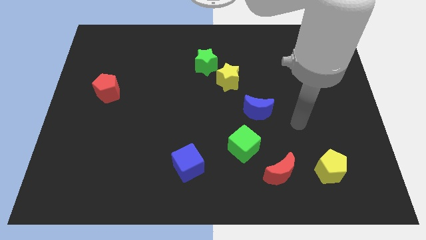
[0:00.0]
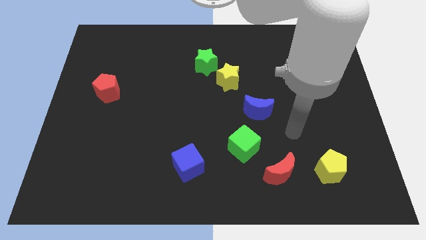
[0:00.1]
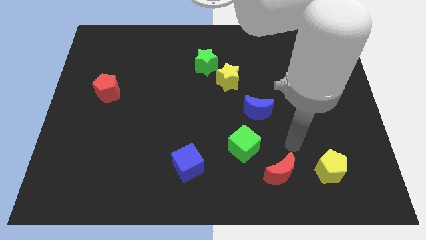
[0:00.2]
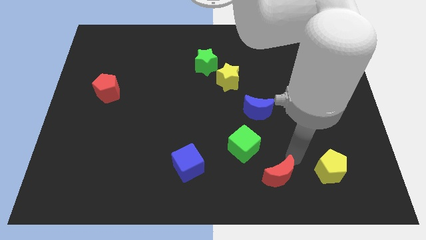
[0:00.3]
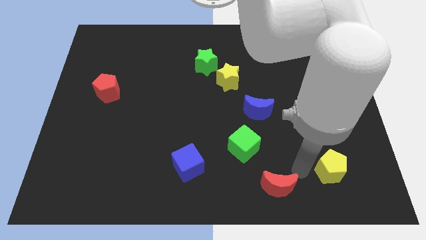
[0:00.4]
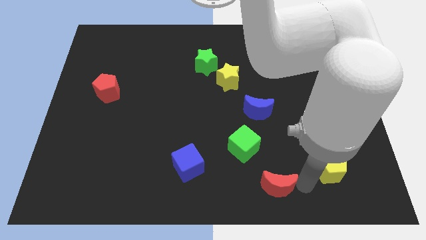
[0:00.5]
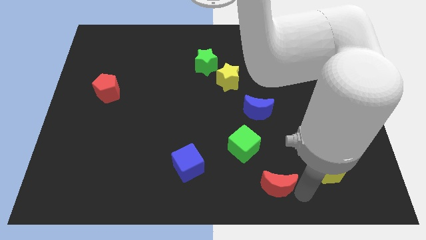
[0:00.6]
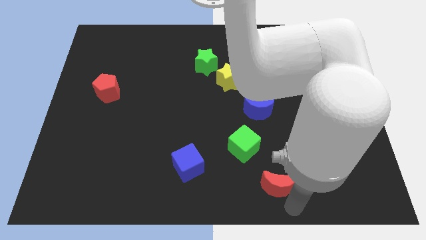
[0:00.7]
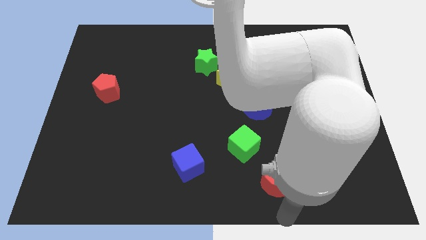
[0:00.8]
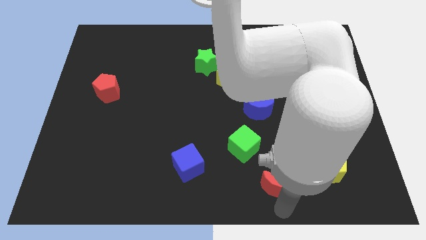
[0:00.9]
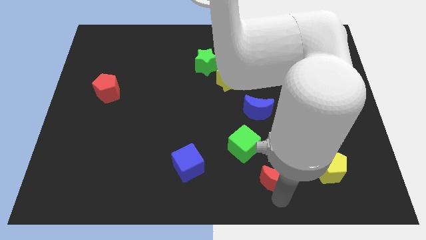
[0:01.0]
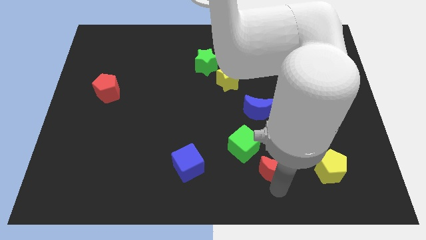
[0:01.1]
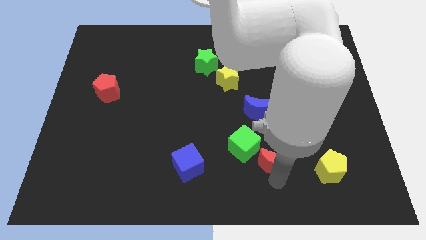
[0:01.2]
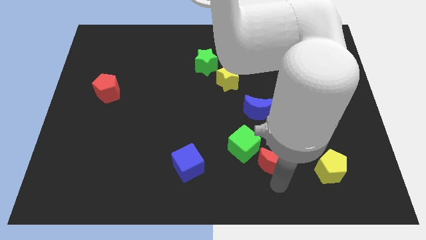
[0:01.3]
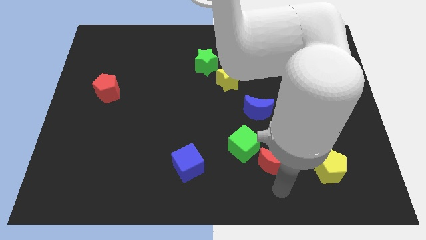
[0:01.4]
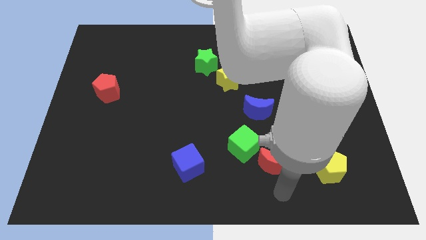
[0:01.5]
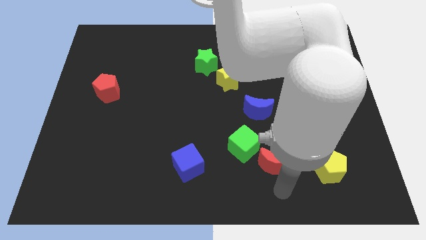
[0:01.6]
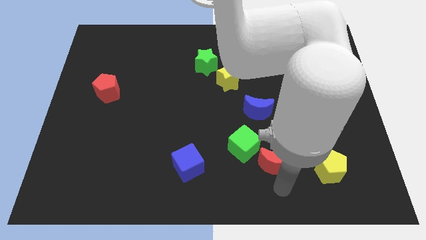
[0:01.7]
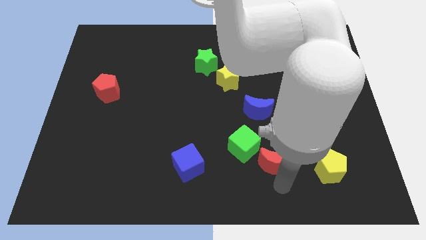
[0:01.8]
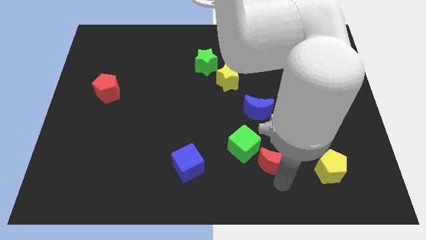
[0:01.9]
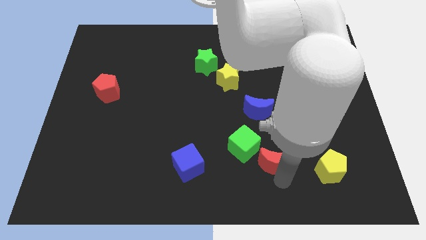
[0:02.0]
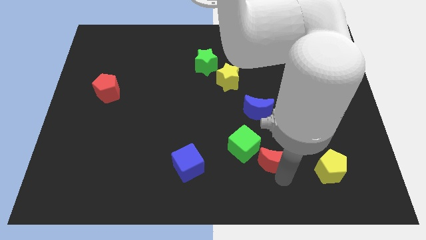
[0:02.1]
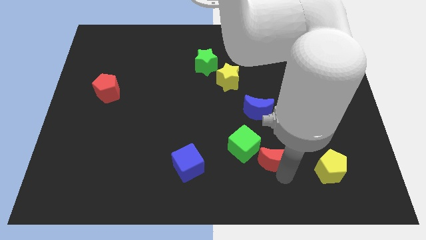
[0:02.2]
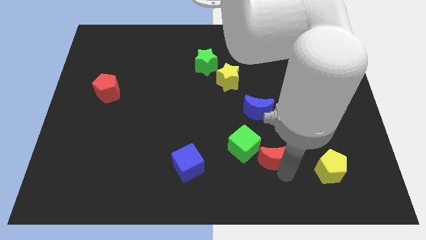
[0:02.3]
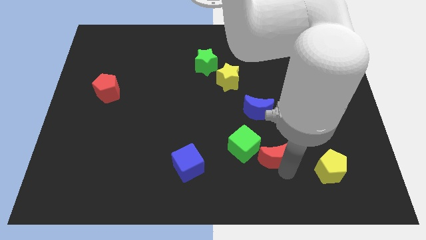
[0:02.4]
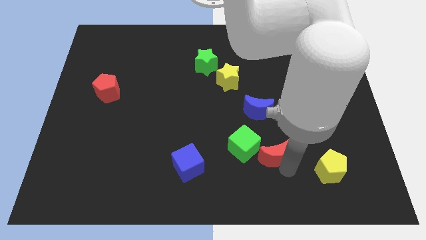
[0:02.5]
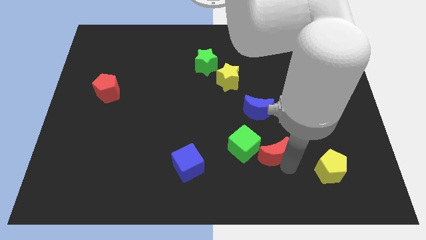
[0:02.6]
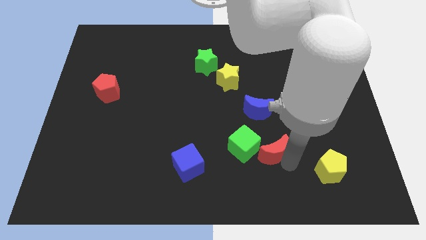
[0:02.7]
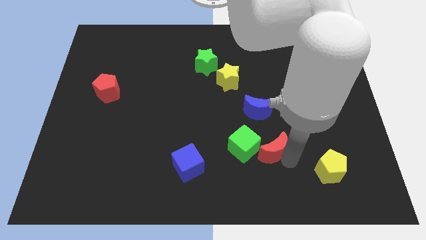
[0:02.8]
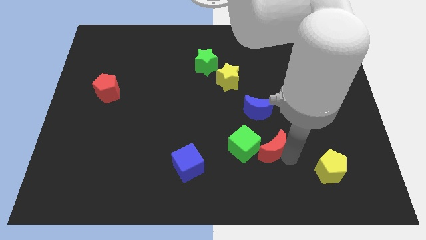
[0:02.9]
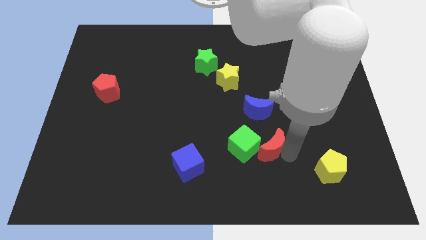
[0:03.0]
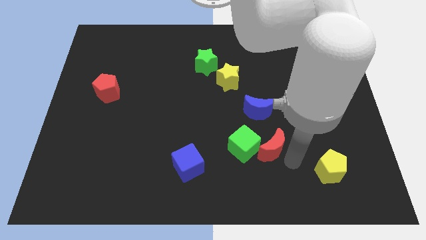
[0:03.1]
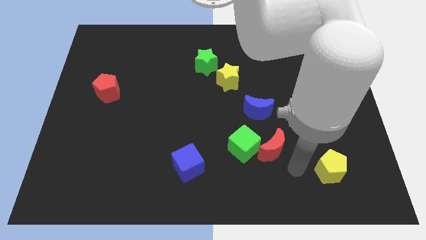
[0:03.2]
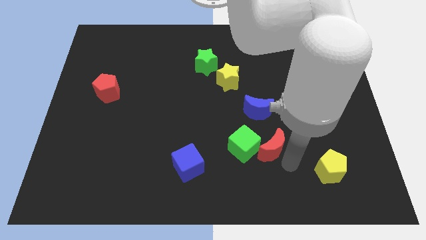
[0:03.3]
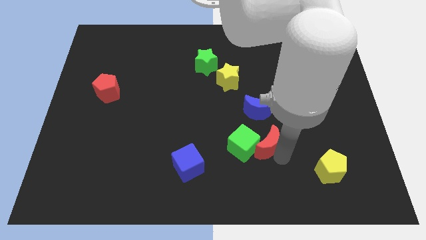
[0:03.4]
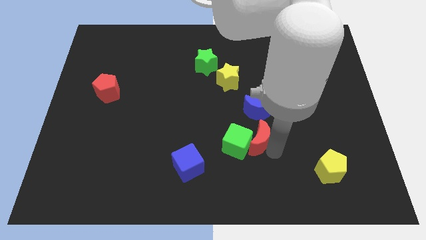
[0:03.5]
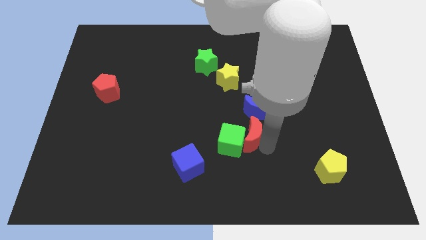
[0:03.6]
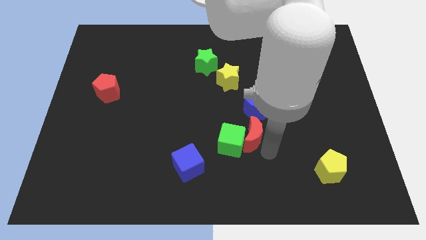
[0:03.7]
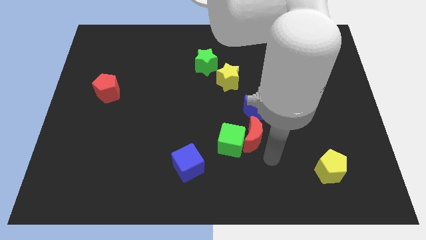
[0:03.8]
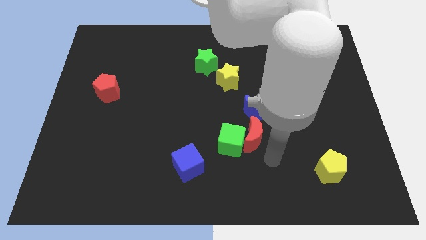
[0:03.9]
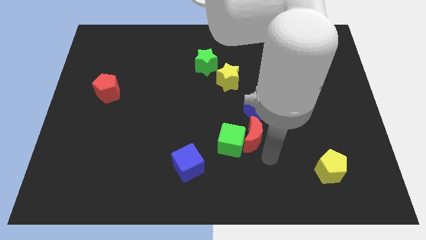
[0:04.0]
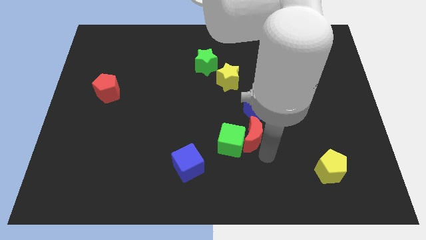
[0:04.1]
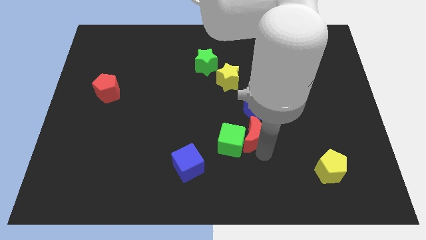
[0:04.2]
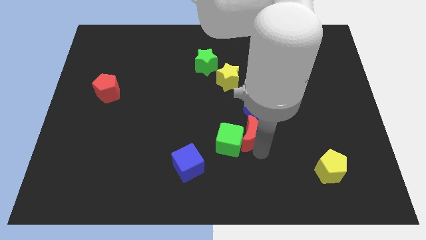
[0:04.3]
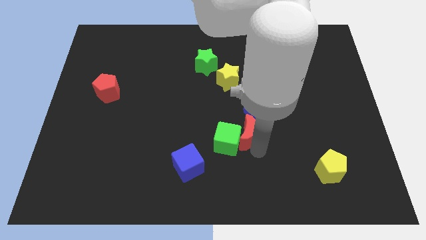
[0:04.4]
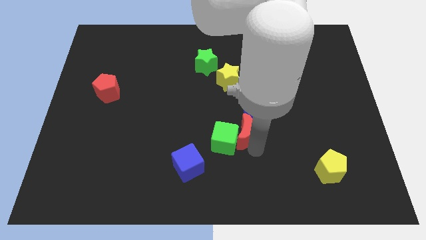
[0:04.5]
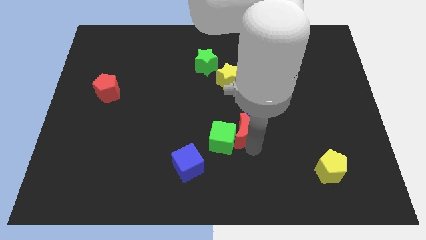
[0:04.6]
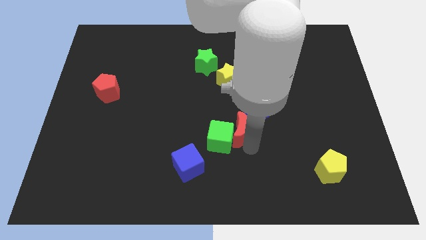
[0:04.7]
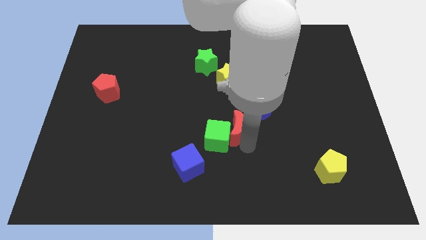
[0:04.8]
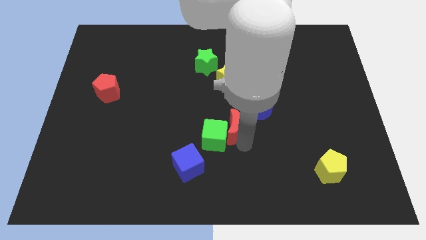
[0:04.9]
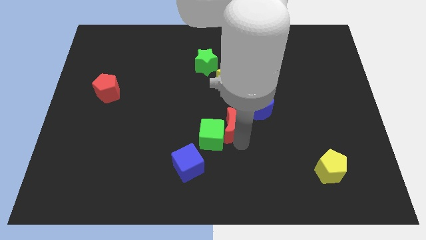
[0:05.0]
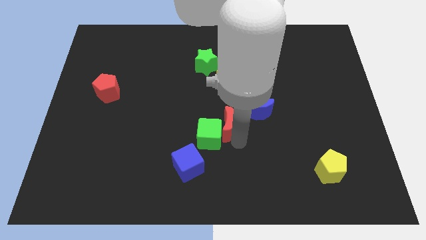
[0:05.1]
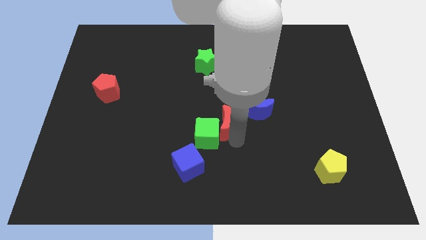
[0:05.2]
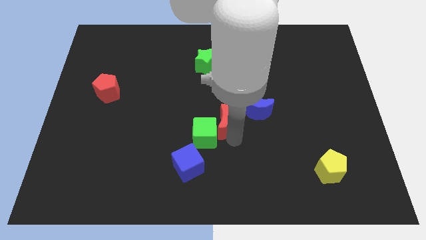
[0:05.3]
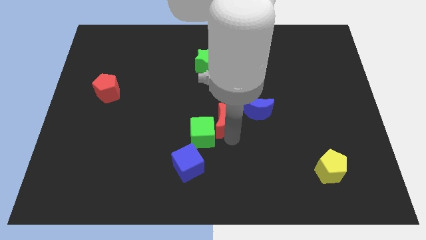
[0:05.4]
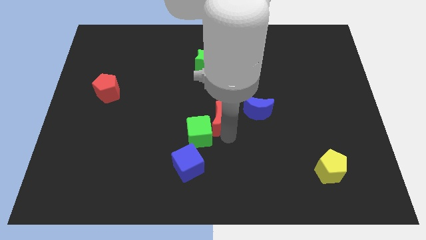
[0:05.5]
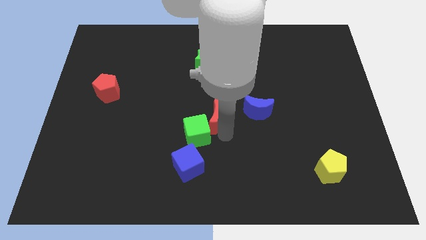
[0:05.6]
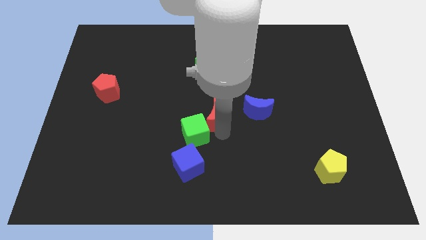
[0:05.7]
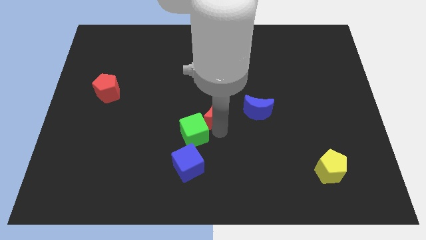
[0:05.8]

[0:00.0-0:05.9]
move the red moon up and then left

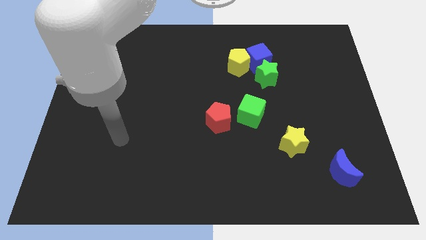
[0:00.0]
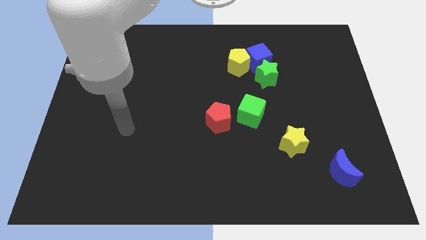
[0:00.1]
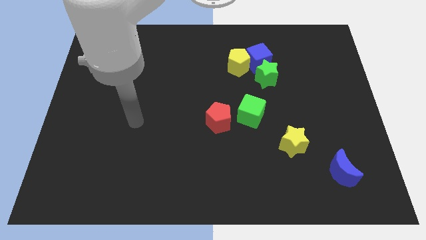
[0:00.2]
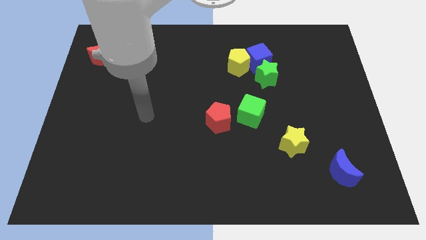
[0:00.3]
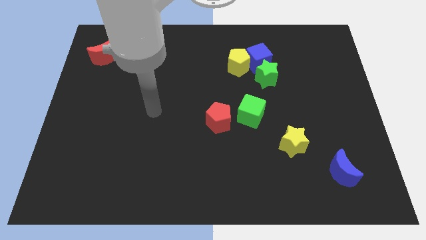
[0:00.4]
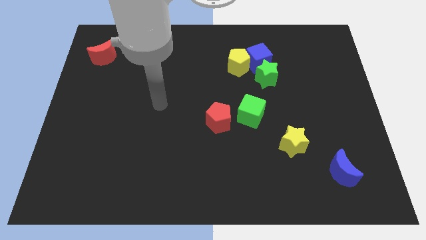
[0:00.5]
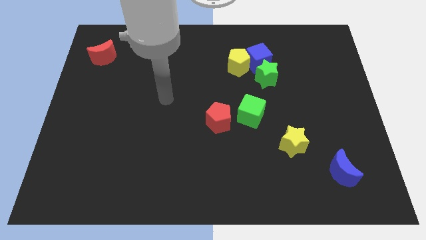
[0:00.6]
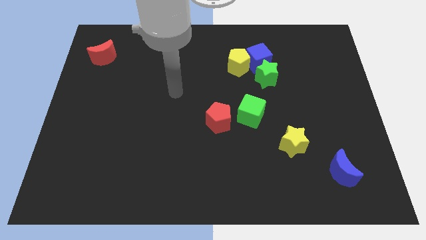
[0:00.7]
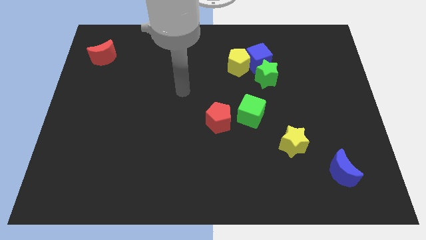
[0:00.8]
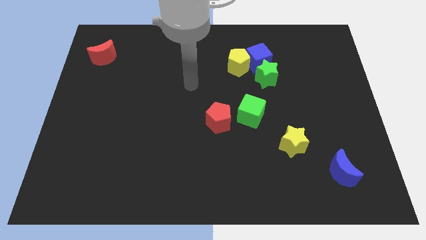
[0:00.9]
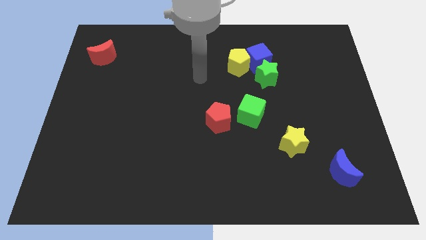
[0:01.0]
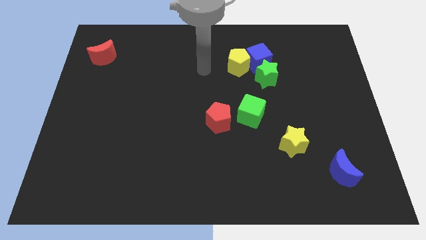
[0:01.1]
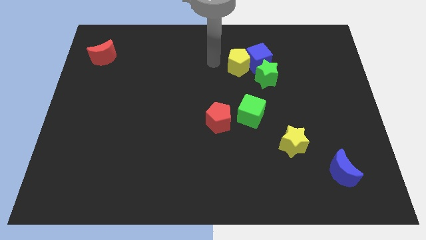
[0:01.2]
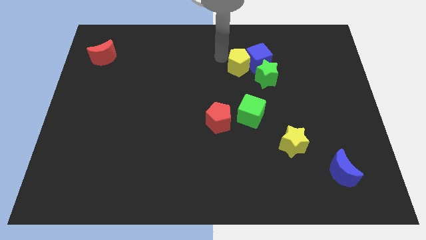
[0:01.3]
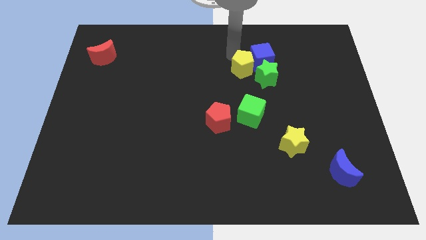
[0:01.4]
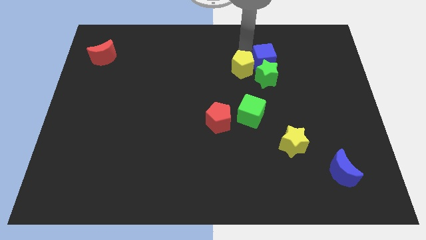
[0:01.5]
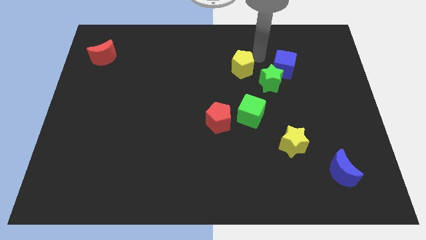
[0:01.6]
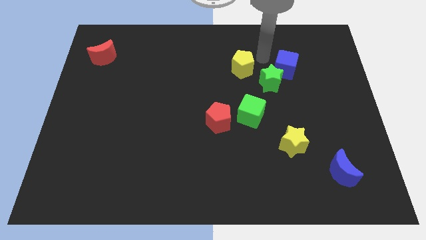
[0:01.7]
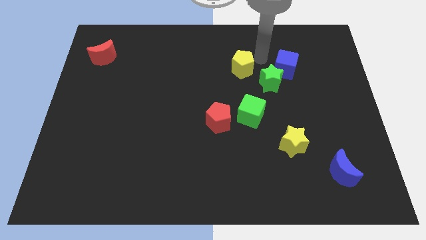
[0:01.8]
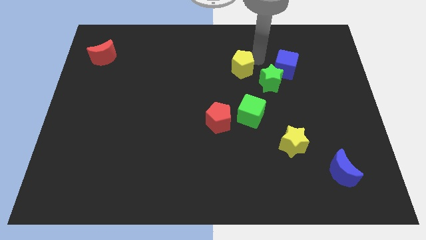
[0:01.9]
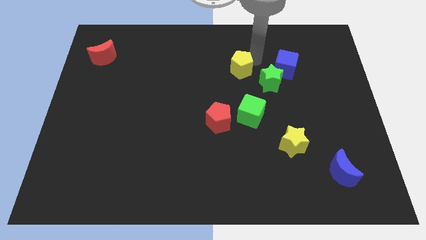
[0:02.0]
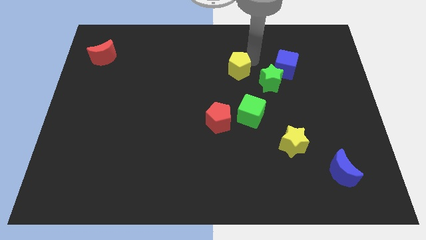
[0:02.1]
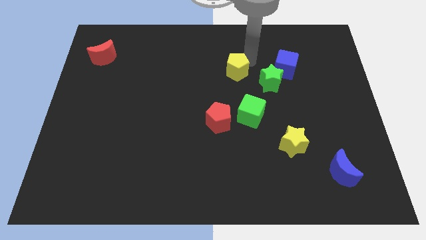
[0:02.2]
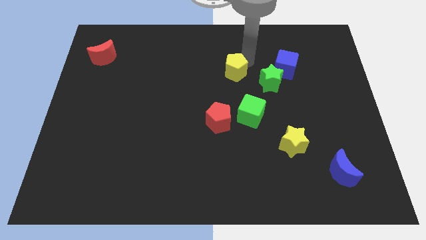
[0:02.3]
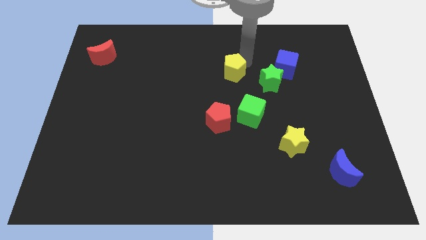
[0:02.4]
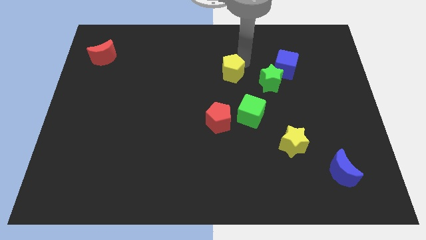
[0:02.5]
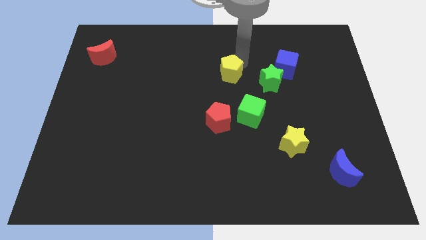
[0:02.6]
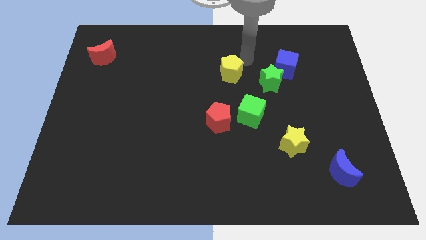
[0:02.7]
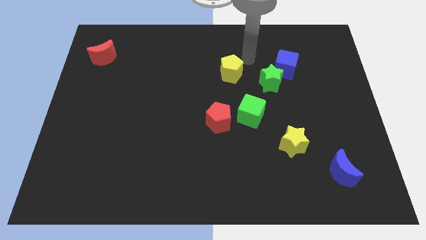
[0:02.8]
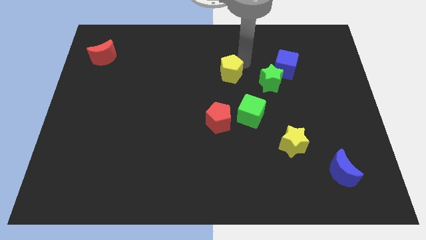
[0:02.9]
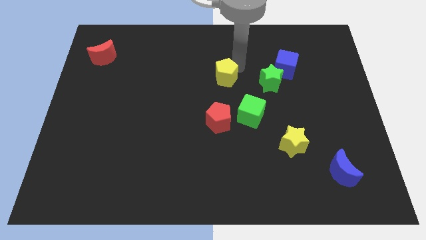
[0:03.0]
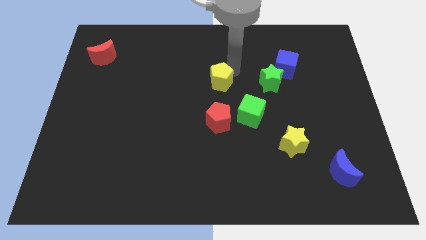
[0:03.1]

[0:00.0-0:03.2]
slide the yellow pentagon downwards and left diagonally somewhat
